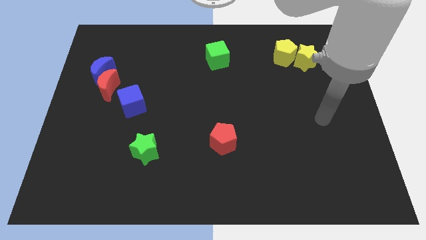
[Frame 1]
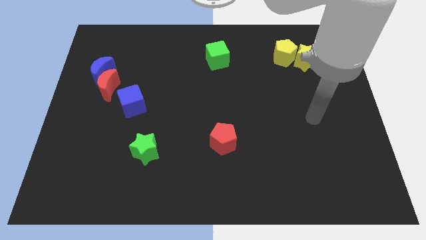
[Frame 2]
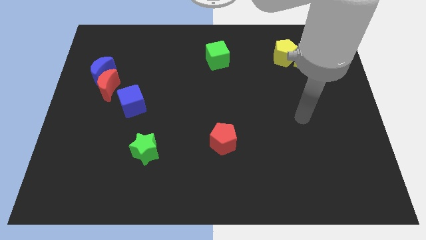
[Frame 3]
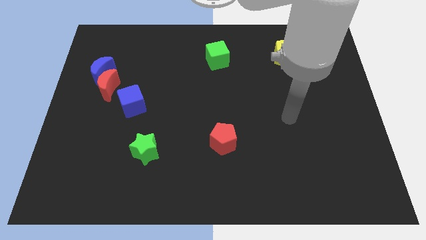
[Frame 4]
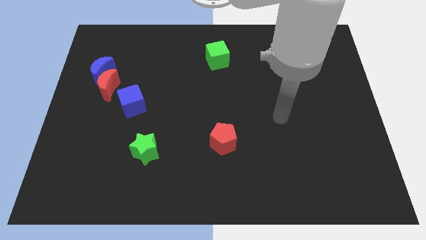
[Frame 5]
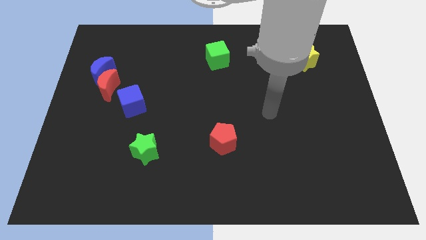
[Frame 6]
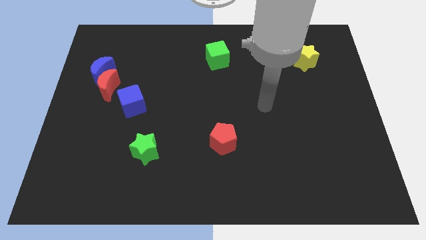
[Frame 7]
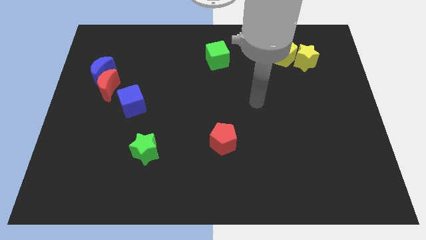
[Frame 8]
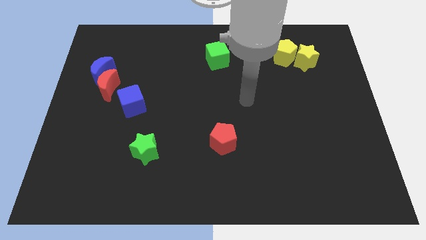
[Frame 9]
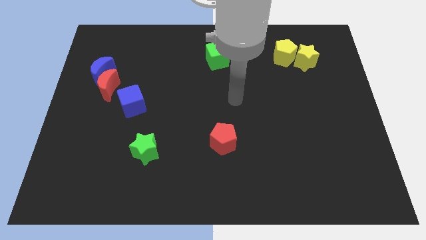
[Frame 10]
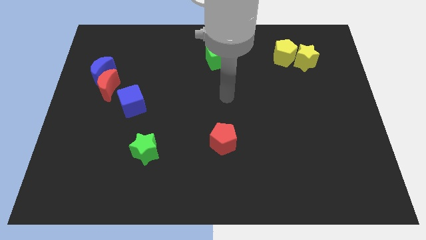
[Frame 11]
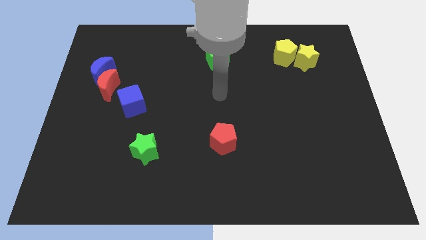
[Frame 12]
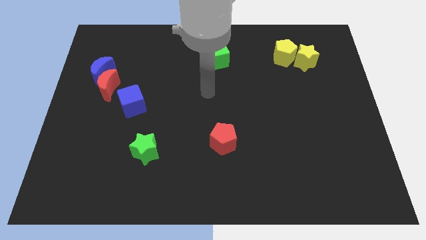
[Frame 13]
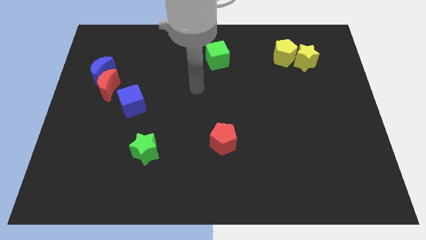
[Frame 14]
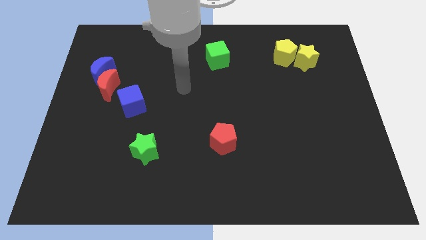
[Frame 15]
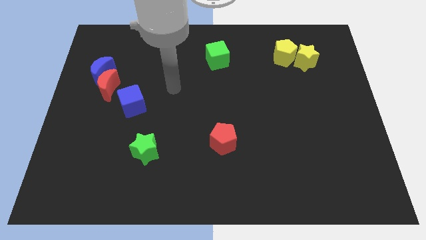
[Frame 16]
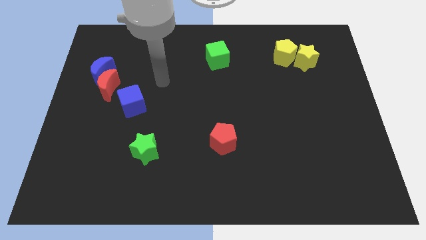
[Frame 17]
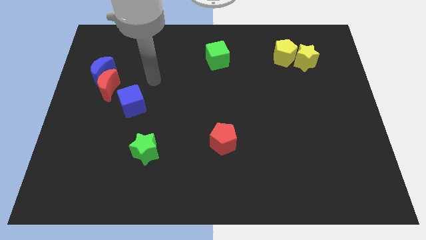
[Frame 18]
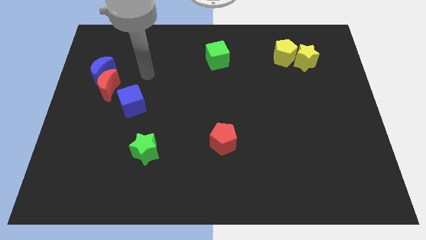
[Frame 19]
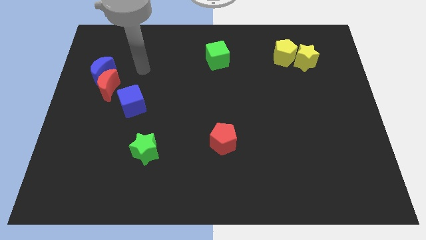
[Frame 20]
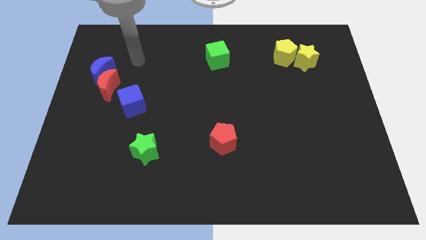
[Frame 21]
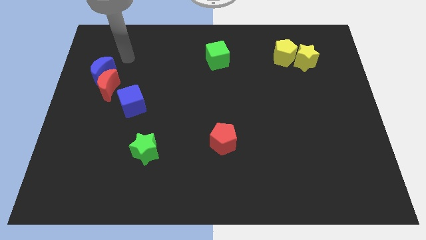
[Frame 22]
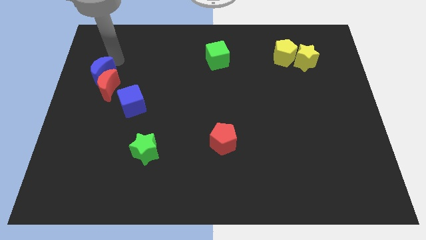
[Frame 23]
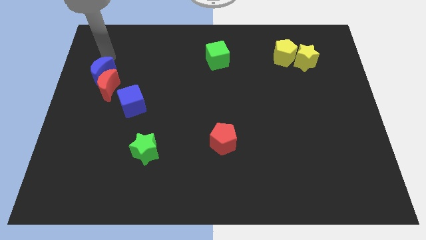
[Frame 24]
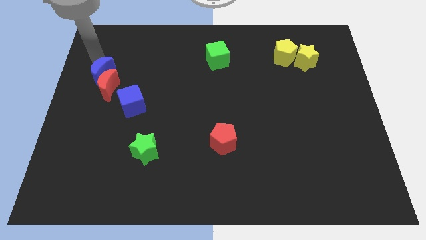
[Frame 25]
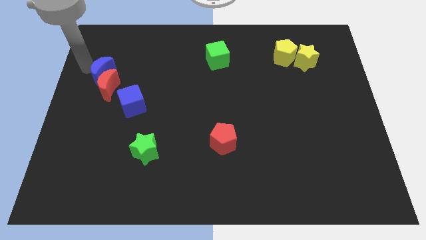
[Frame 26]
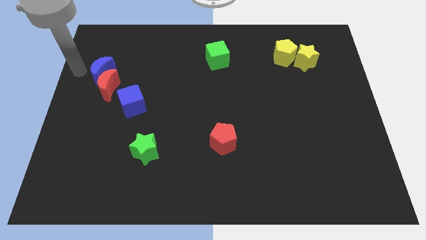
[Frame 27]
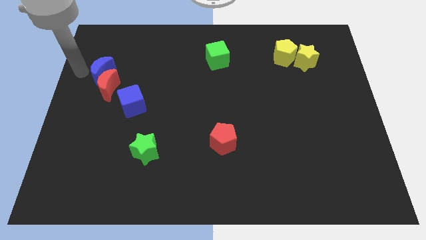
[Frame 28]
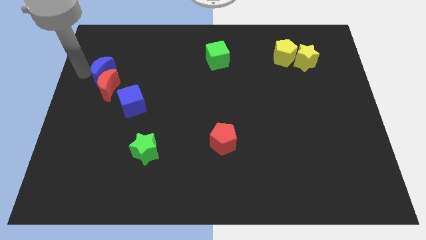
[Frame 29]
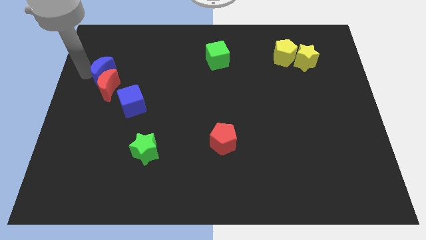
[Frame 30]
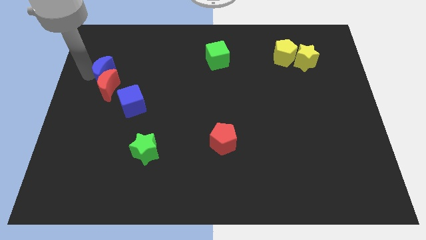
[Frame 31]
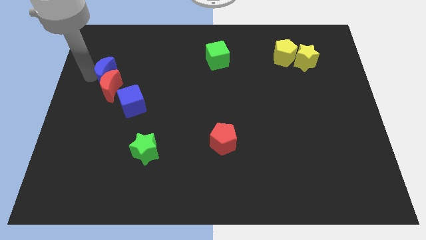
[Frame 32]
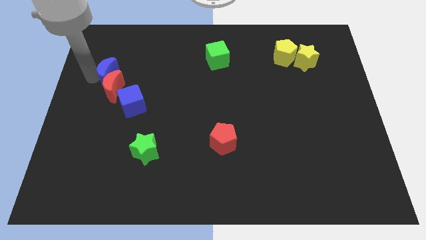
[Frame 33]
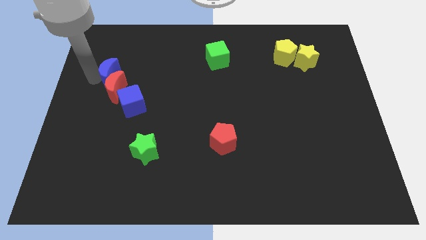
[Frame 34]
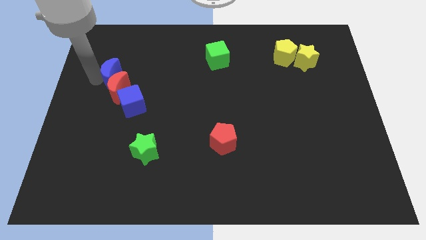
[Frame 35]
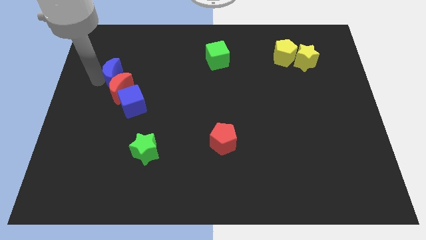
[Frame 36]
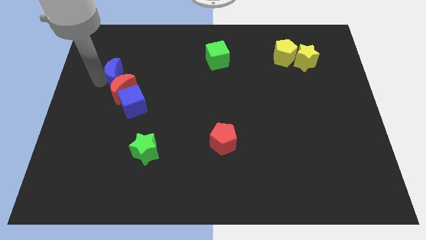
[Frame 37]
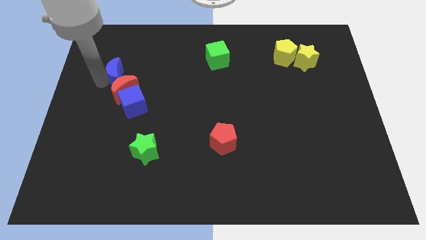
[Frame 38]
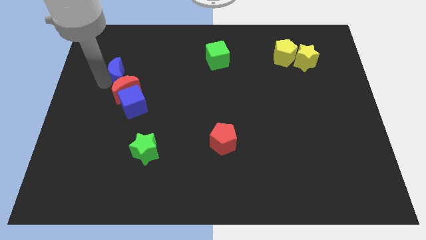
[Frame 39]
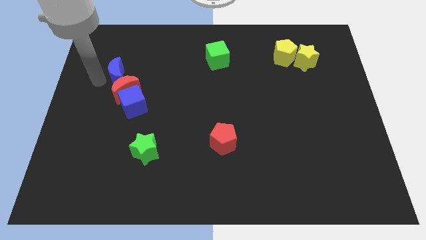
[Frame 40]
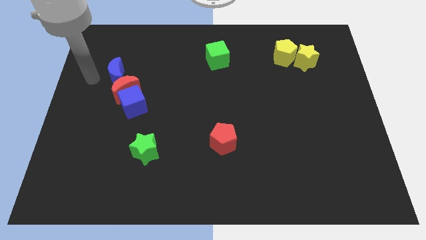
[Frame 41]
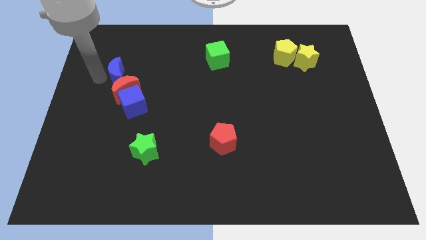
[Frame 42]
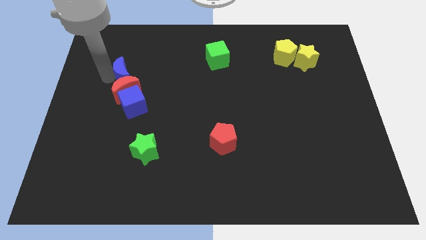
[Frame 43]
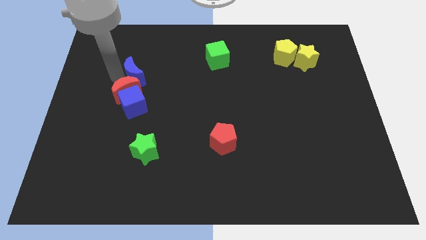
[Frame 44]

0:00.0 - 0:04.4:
push the blue moon right a little bit

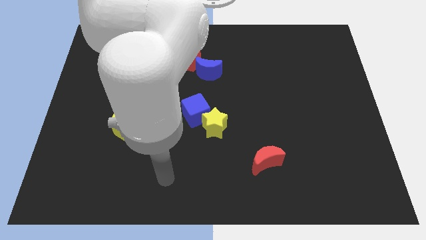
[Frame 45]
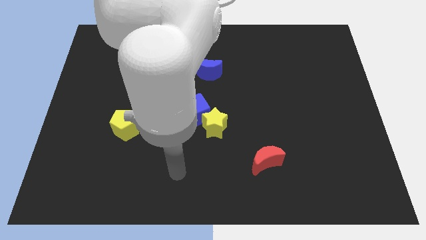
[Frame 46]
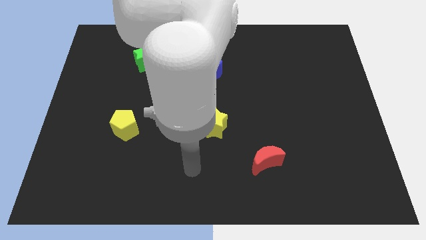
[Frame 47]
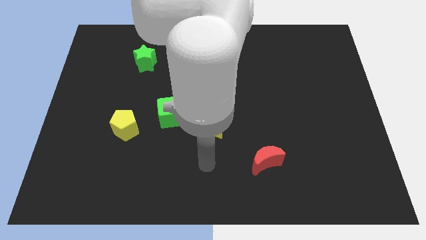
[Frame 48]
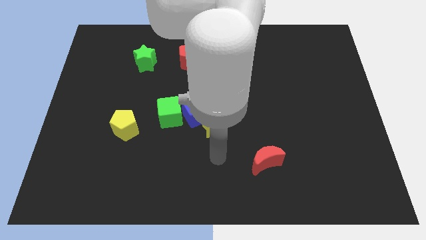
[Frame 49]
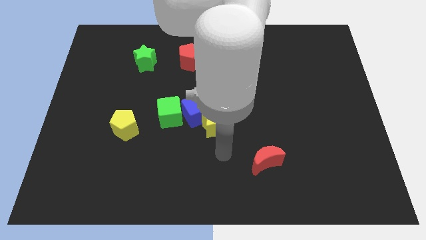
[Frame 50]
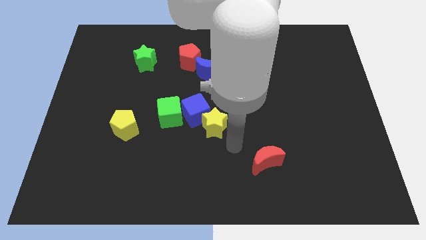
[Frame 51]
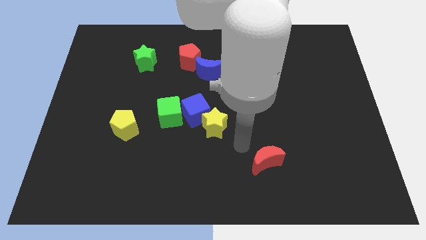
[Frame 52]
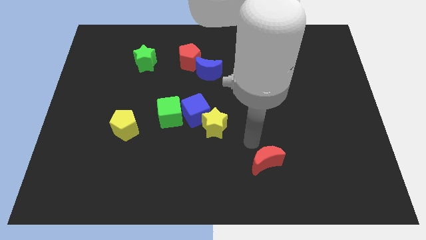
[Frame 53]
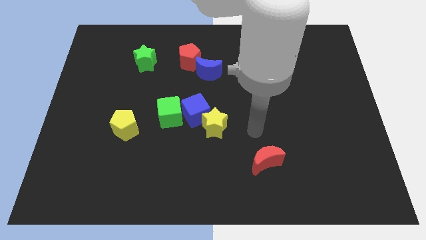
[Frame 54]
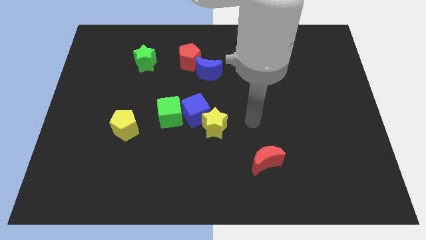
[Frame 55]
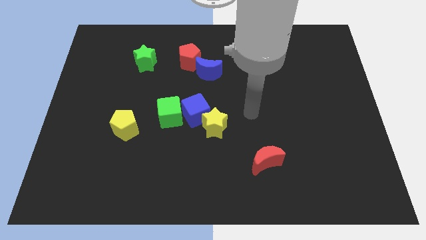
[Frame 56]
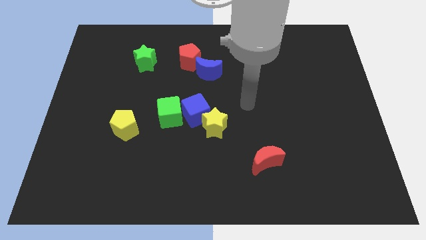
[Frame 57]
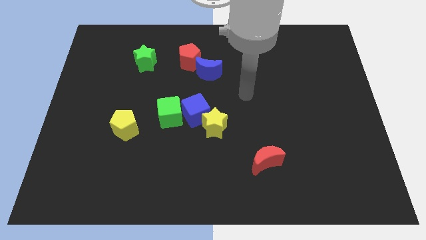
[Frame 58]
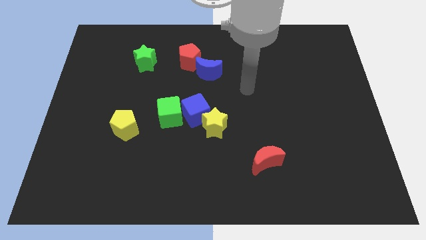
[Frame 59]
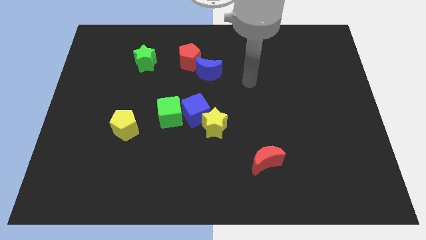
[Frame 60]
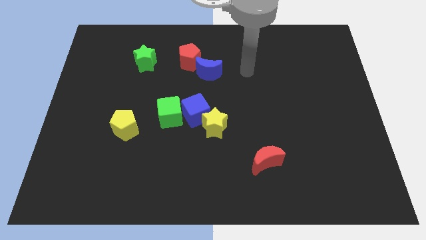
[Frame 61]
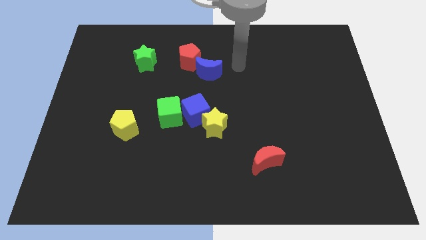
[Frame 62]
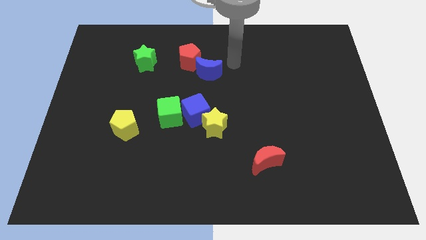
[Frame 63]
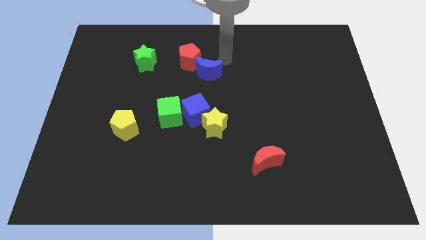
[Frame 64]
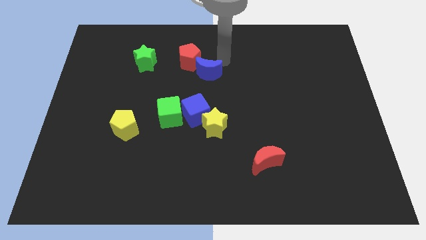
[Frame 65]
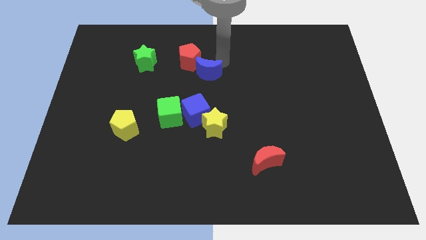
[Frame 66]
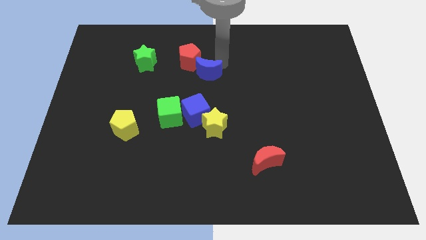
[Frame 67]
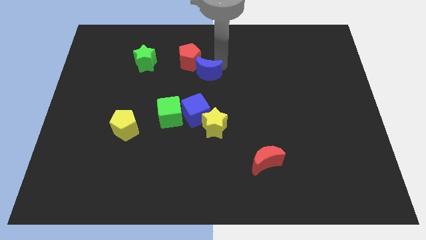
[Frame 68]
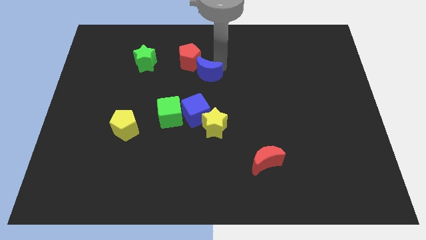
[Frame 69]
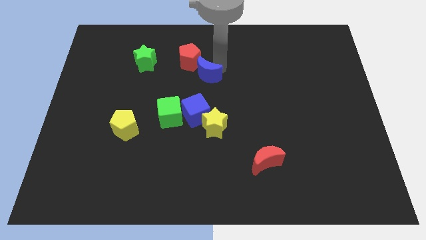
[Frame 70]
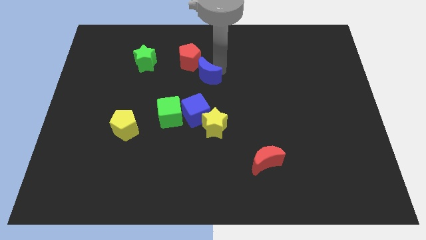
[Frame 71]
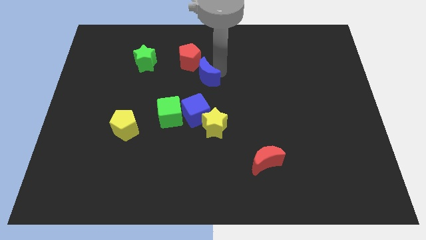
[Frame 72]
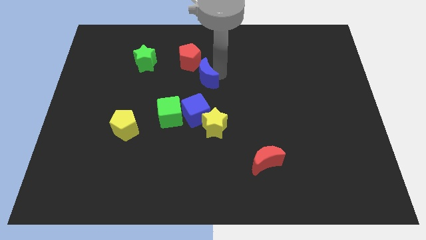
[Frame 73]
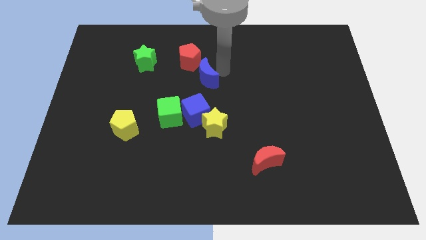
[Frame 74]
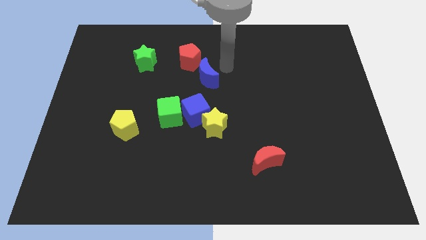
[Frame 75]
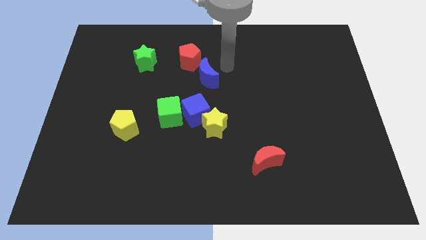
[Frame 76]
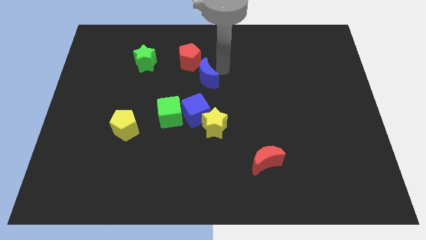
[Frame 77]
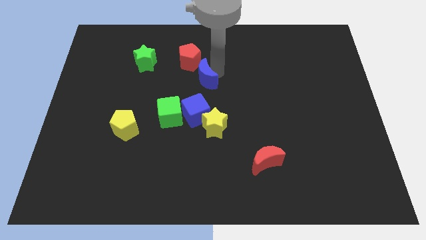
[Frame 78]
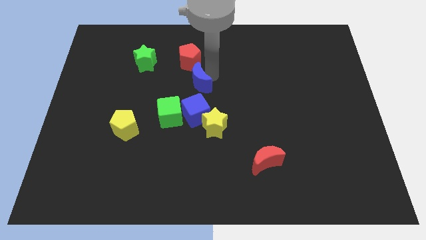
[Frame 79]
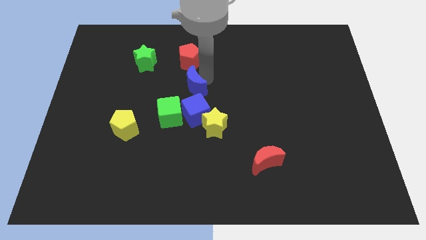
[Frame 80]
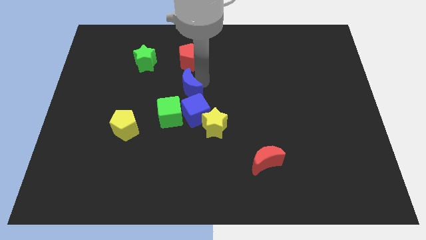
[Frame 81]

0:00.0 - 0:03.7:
move the blue moon down and then to the left somewhat

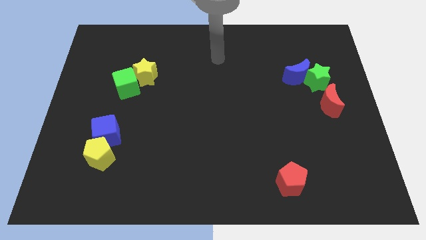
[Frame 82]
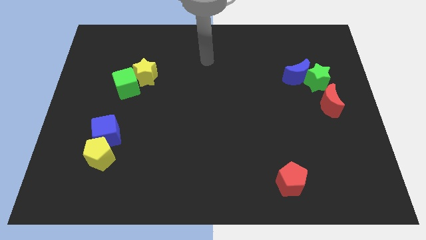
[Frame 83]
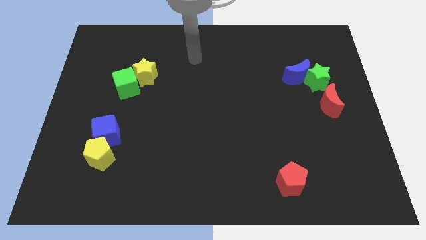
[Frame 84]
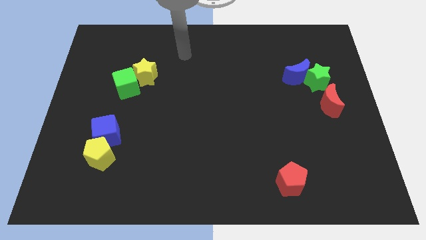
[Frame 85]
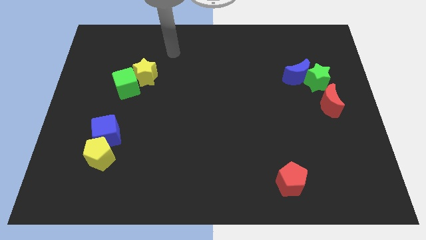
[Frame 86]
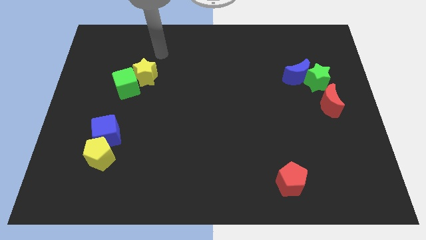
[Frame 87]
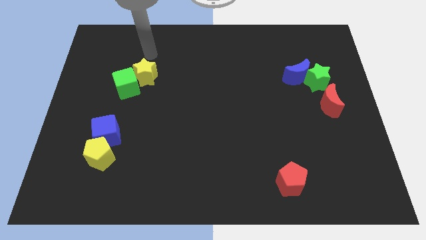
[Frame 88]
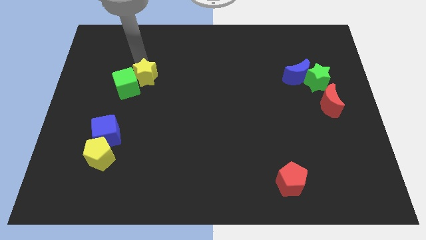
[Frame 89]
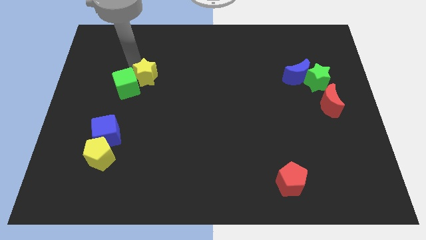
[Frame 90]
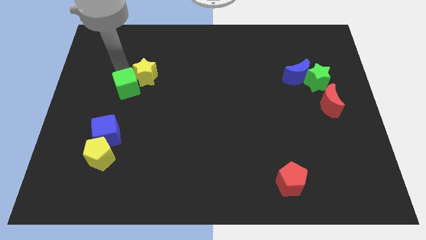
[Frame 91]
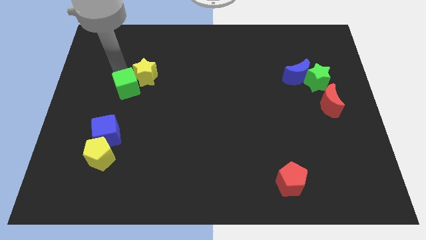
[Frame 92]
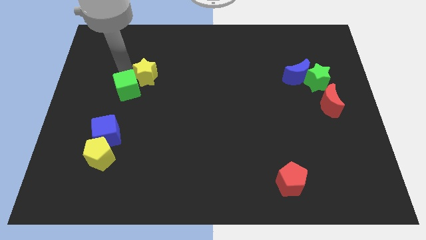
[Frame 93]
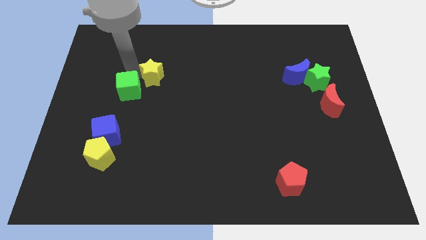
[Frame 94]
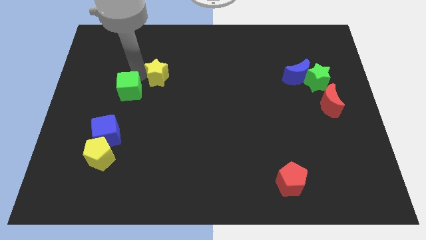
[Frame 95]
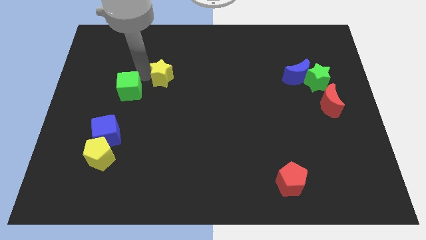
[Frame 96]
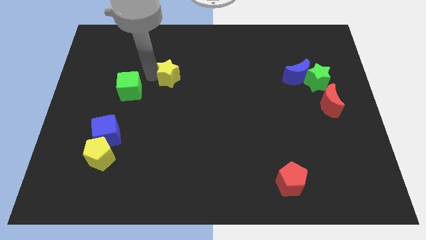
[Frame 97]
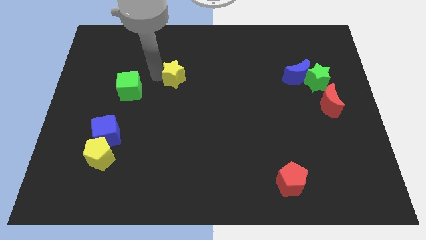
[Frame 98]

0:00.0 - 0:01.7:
slightly move the yellow star to the right
